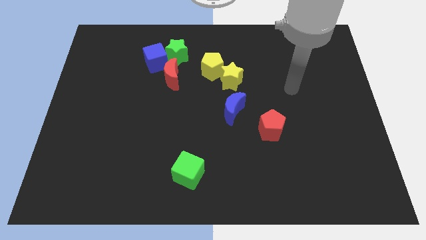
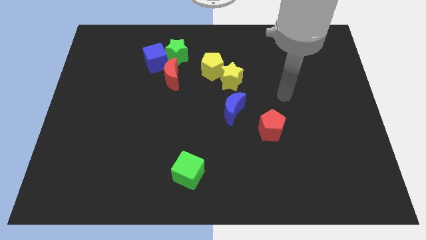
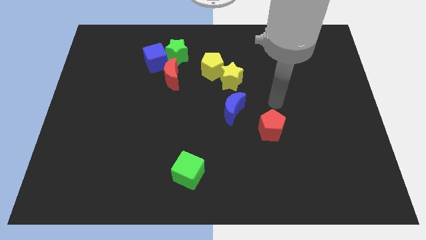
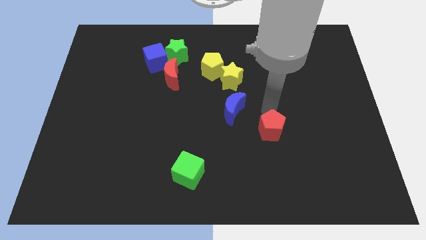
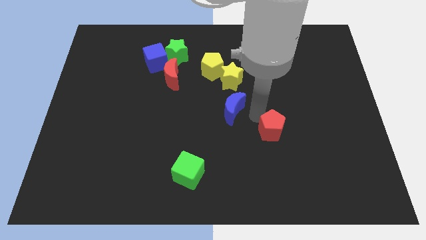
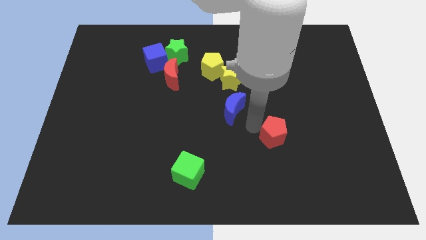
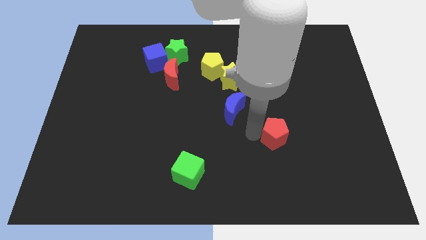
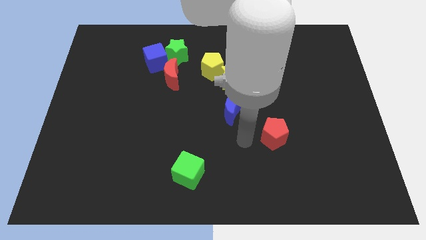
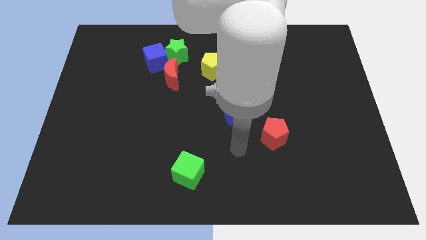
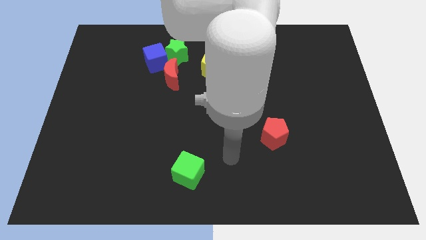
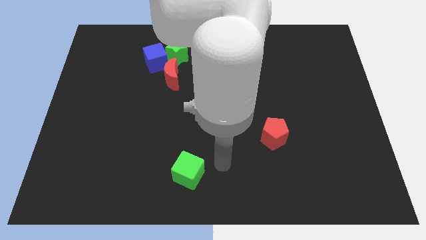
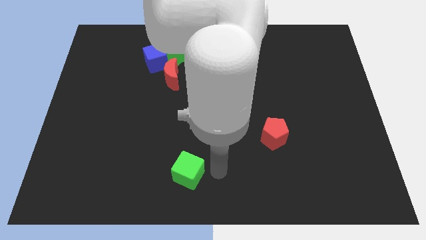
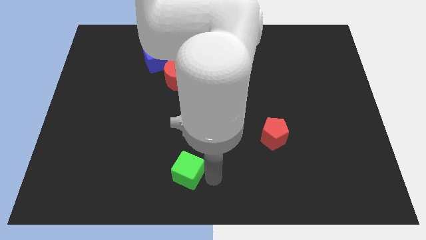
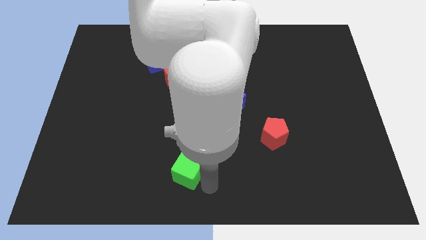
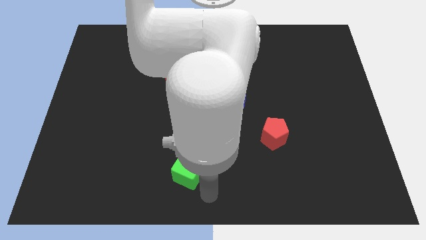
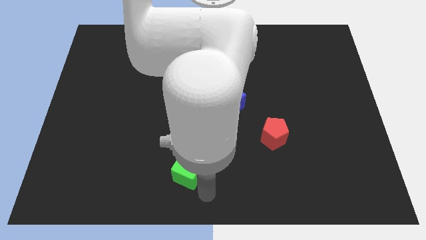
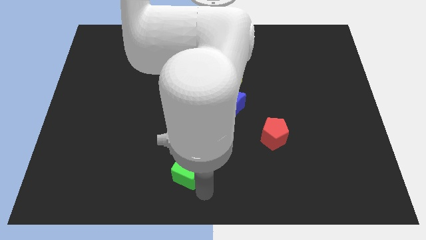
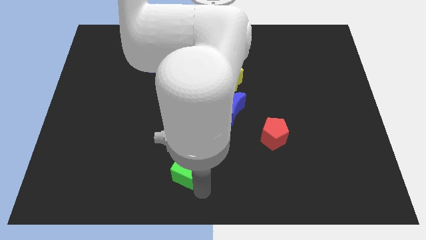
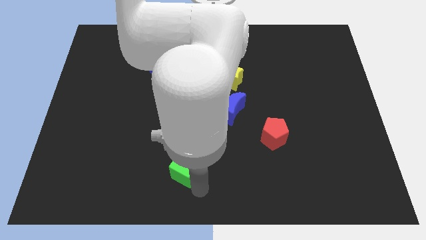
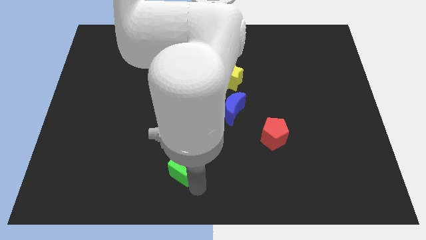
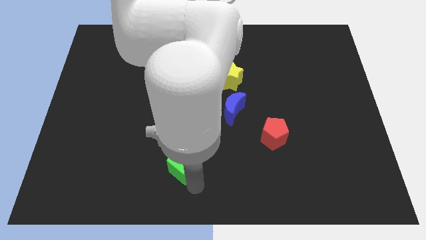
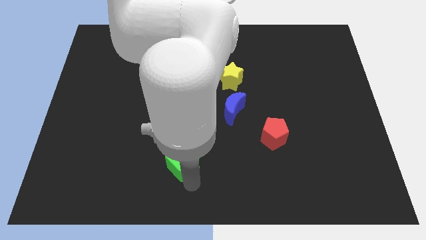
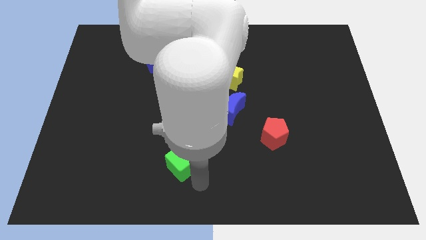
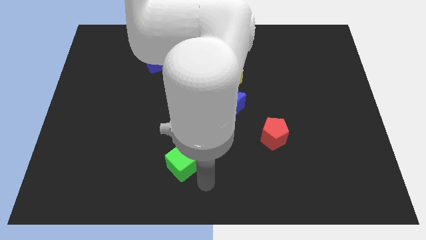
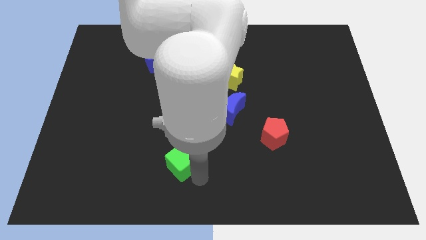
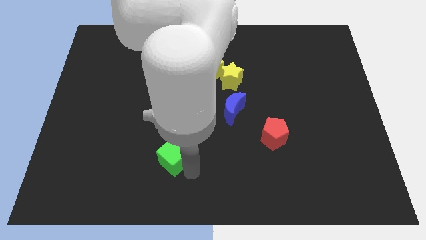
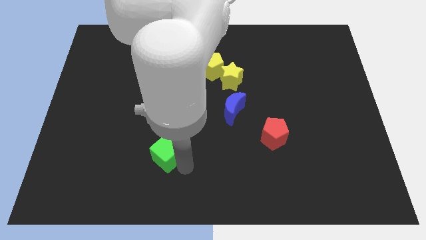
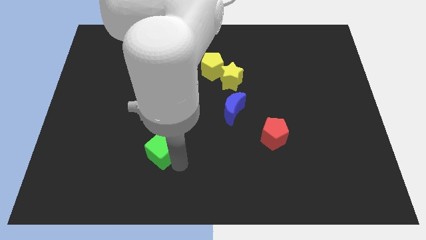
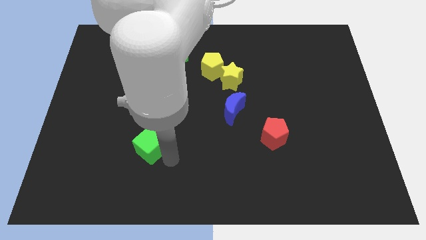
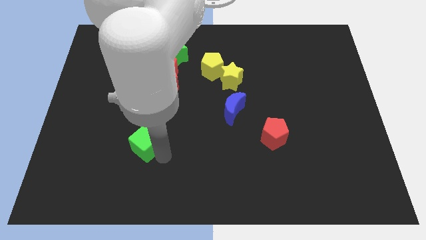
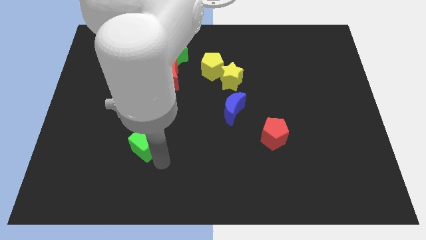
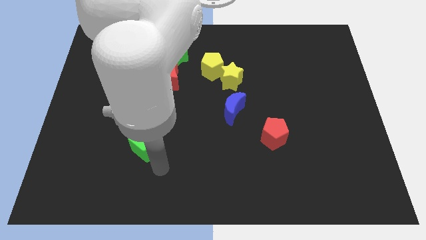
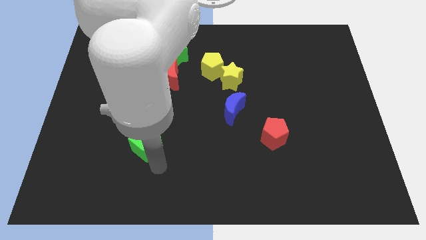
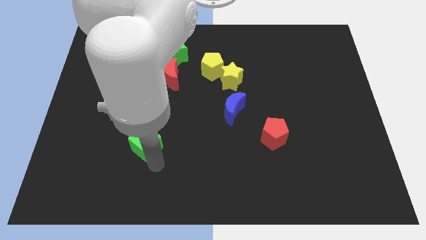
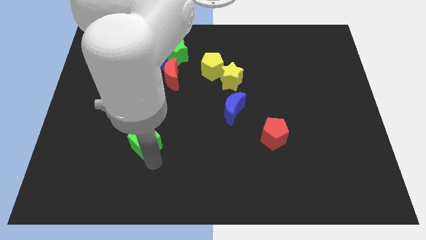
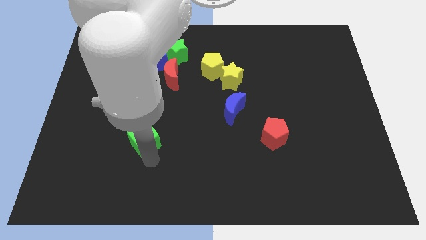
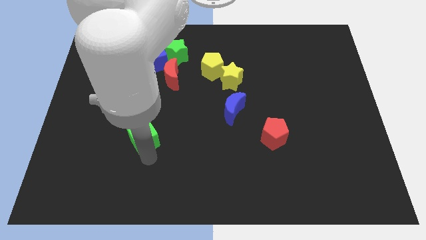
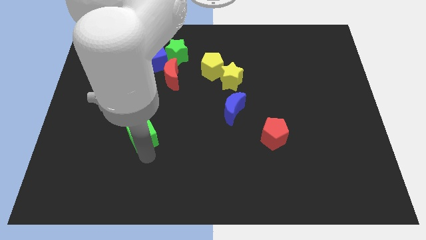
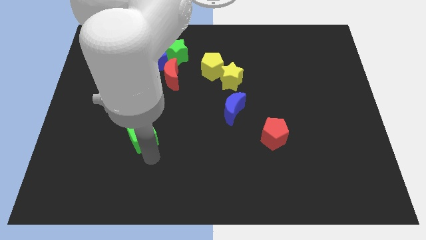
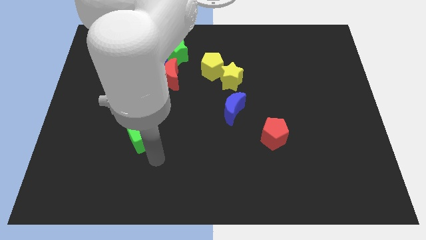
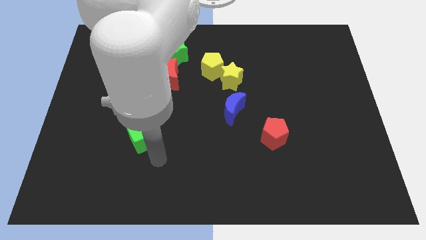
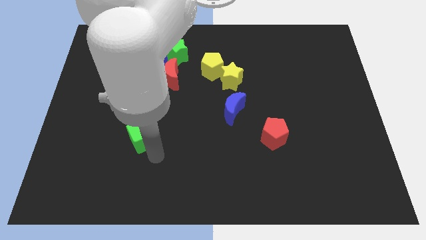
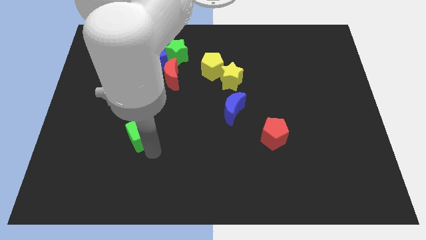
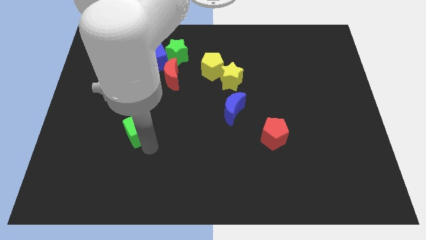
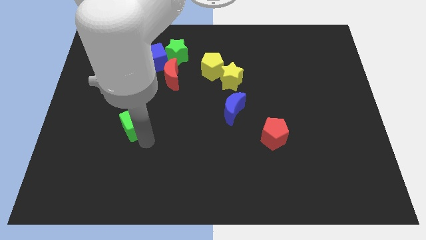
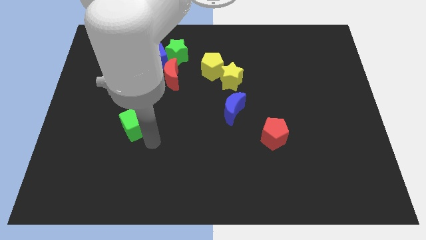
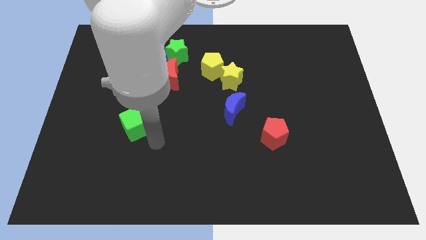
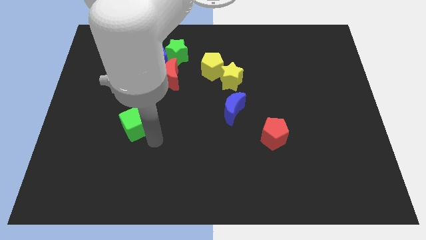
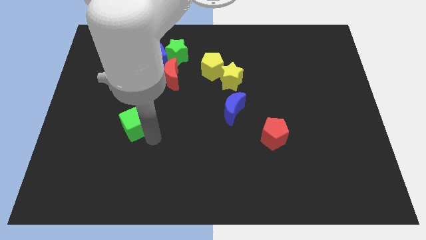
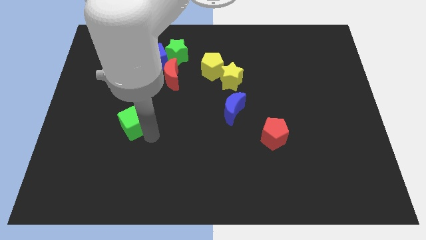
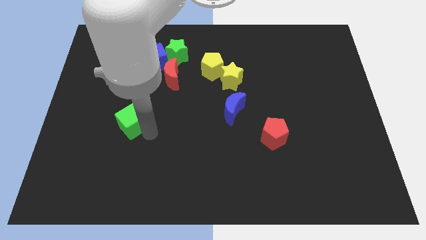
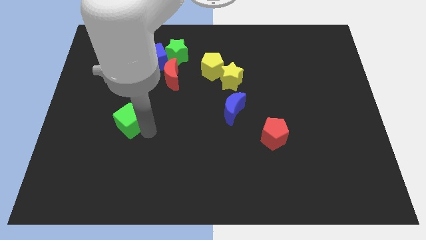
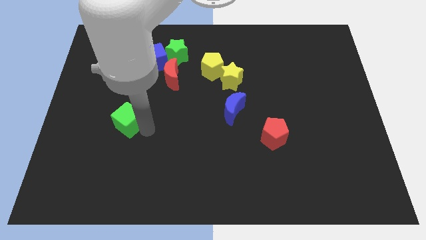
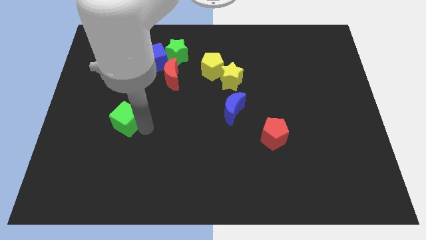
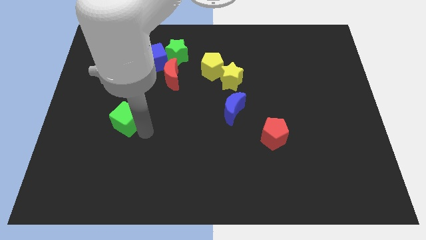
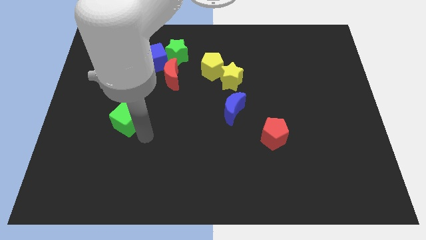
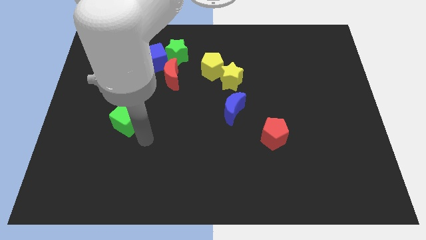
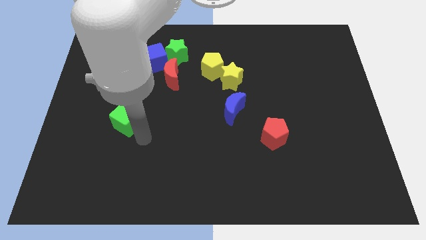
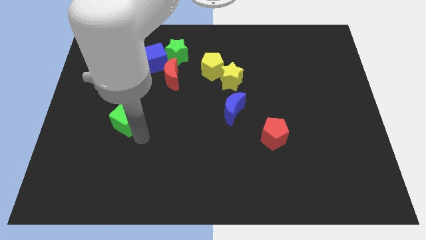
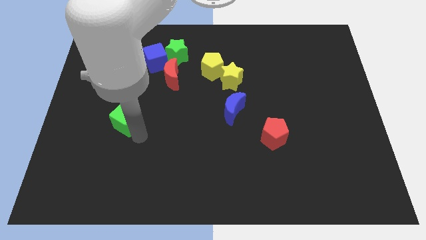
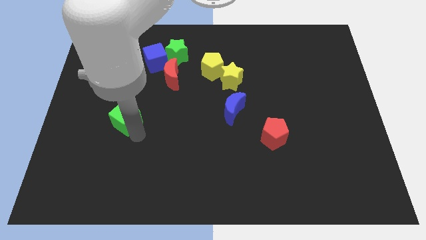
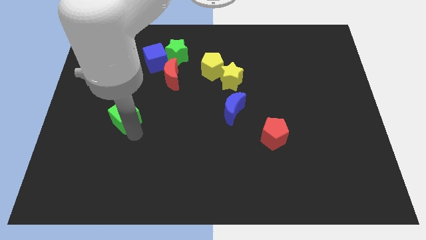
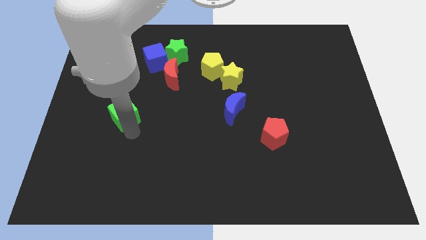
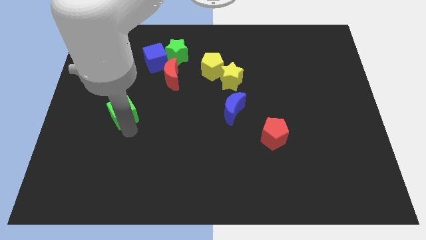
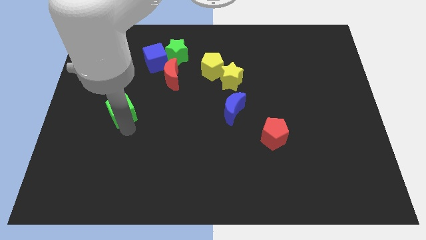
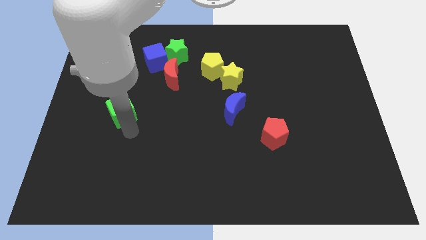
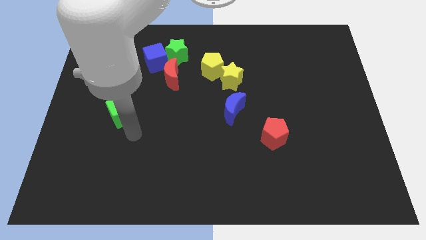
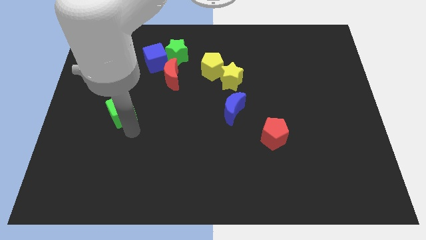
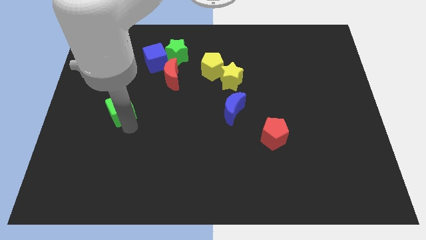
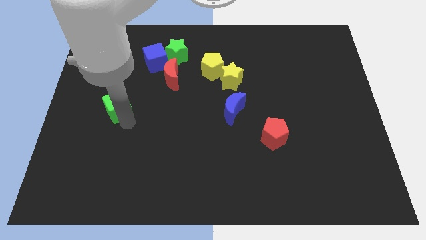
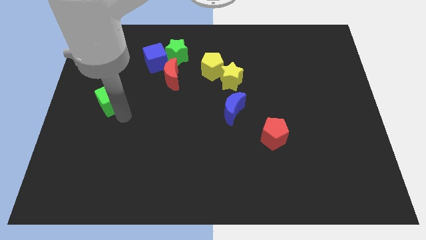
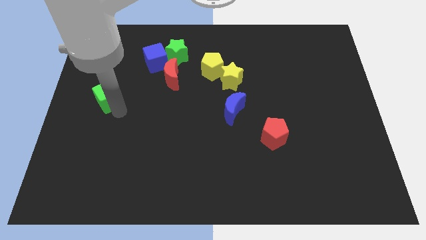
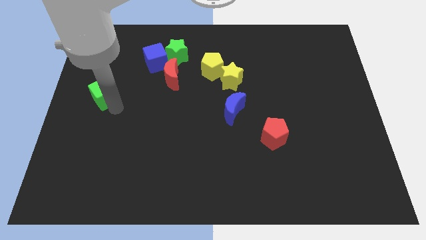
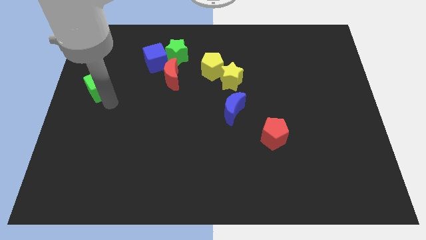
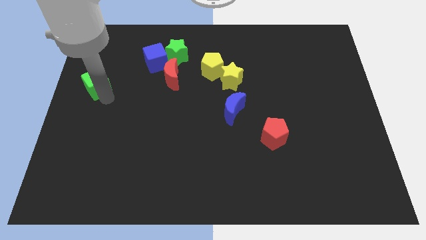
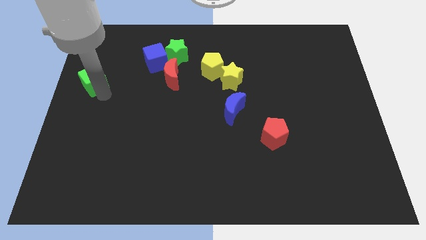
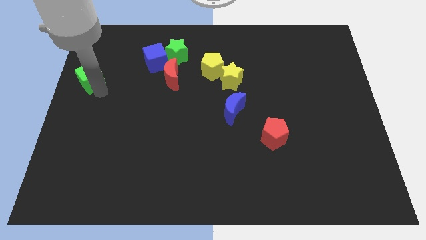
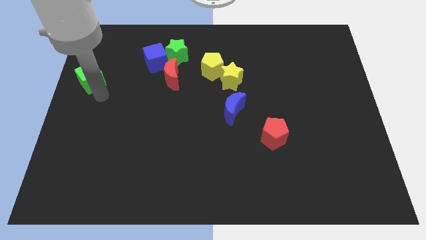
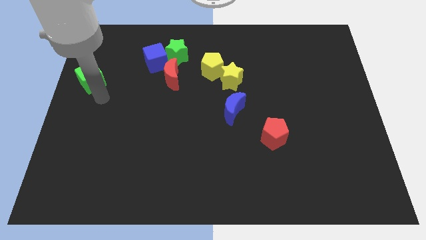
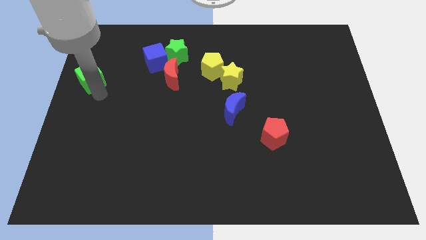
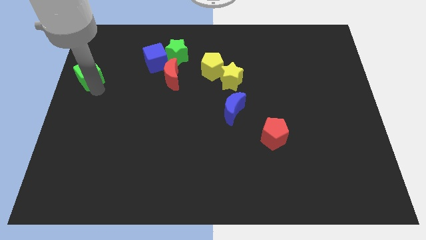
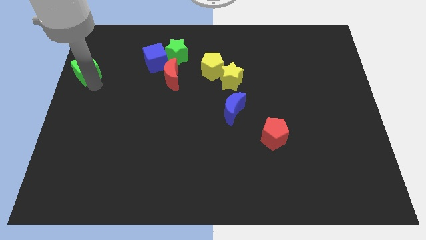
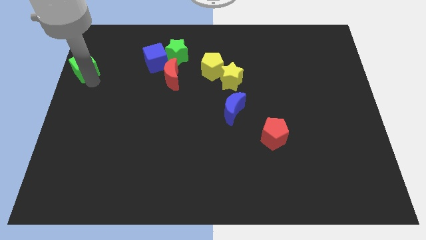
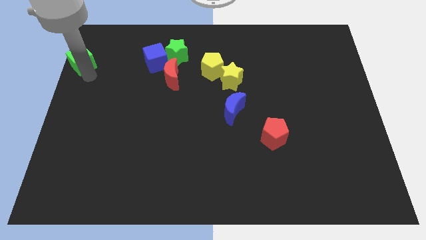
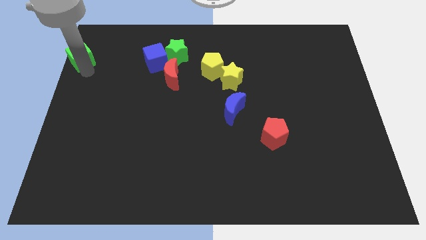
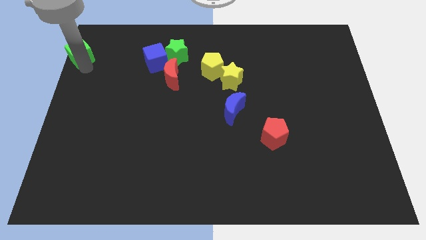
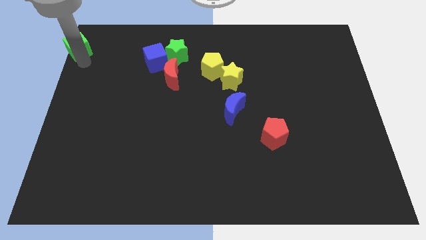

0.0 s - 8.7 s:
push the green cube to the top left
